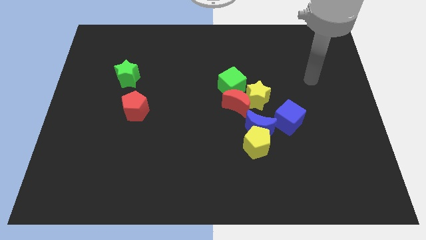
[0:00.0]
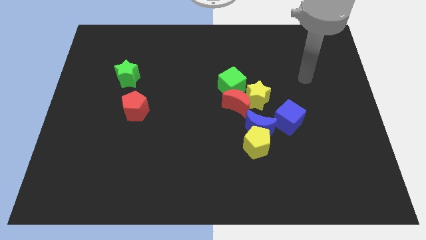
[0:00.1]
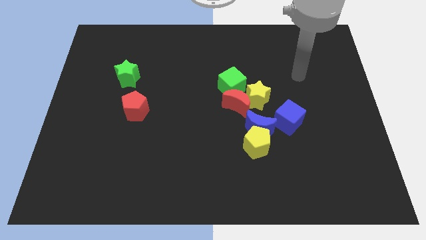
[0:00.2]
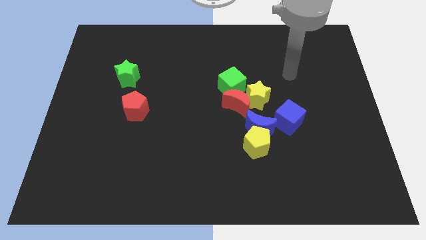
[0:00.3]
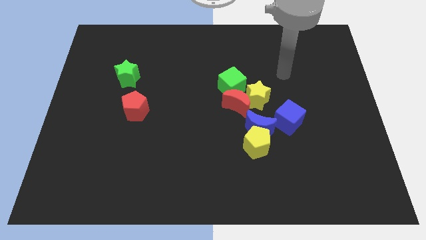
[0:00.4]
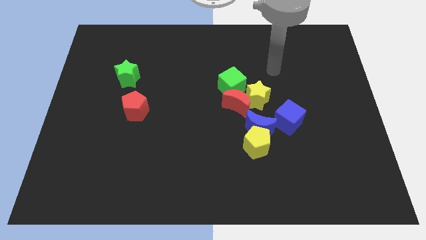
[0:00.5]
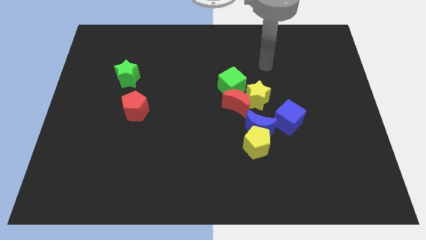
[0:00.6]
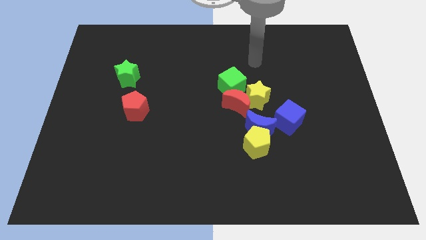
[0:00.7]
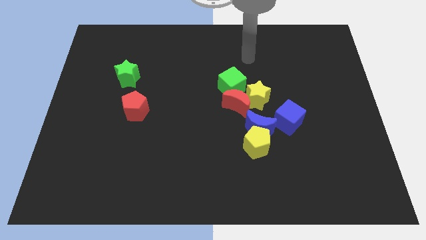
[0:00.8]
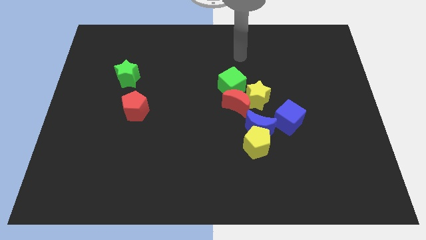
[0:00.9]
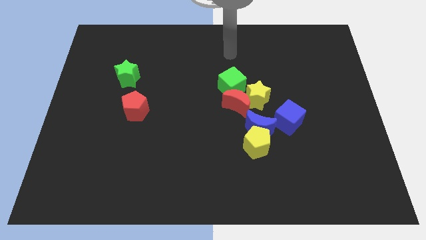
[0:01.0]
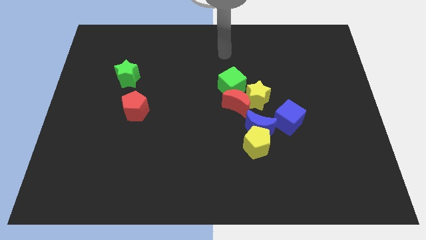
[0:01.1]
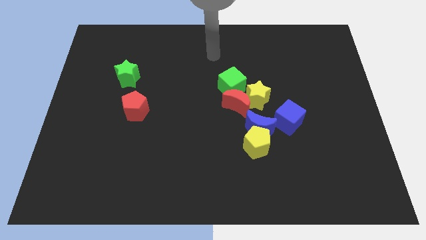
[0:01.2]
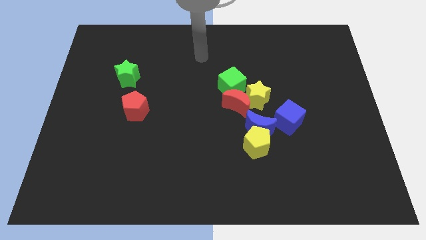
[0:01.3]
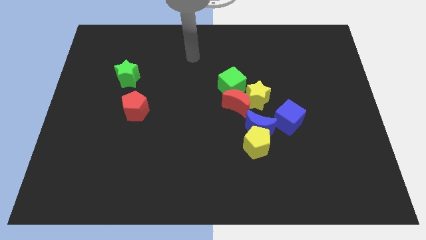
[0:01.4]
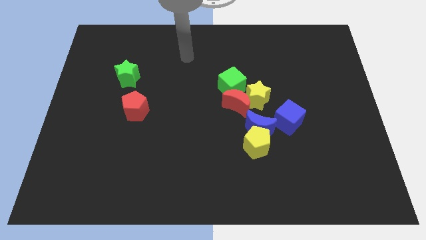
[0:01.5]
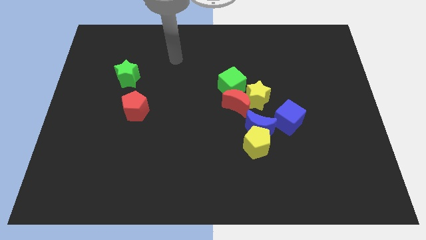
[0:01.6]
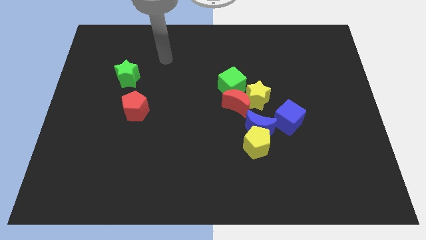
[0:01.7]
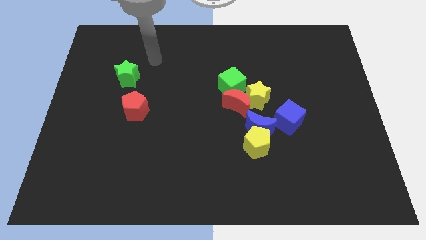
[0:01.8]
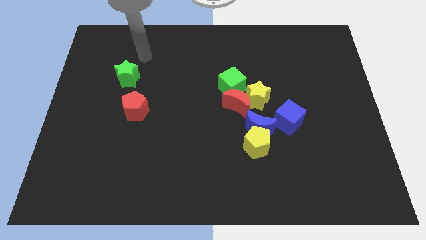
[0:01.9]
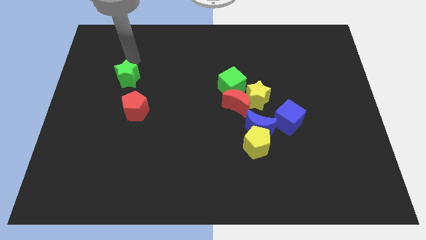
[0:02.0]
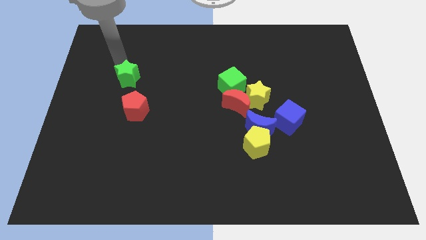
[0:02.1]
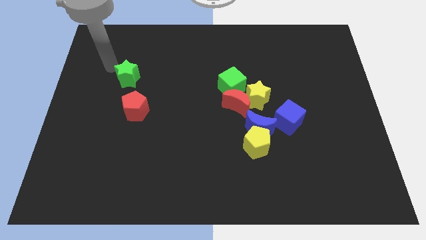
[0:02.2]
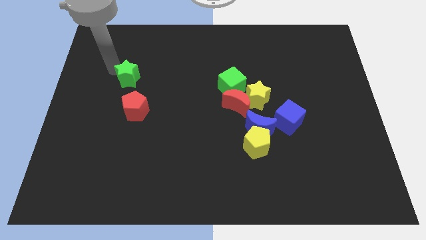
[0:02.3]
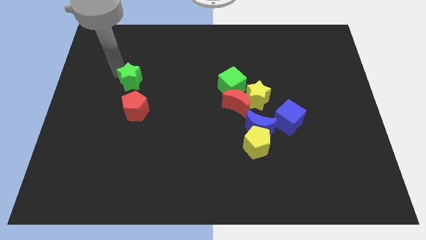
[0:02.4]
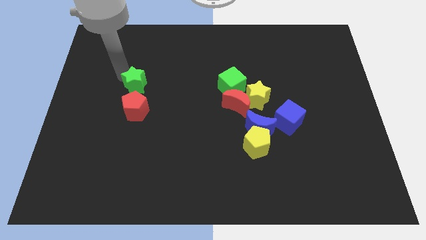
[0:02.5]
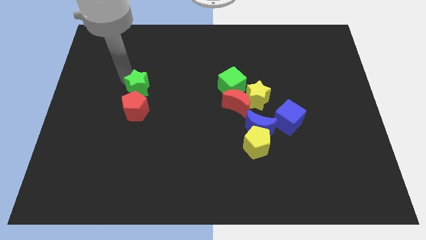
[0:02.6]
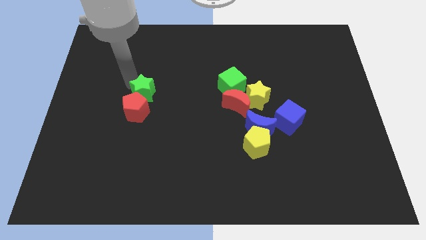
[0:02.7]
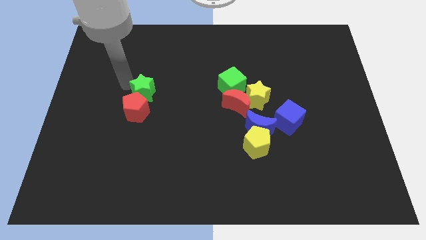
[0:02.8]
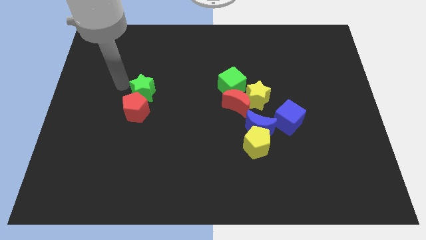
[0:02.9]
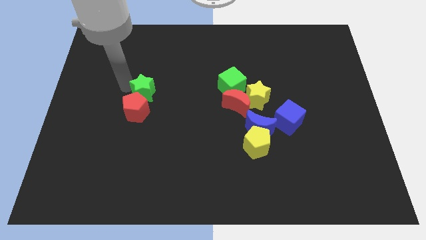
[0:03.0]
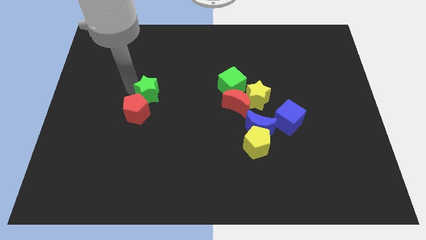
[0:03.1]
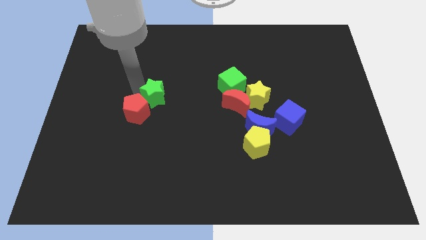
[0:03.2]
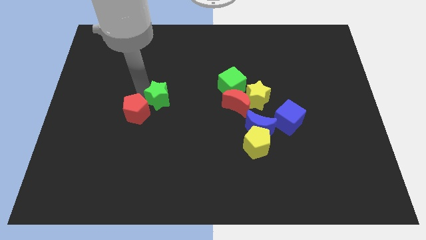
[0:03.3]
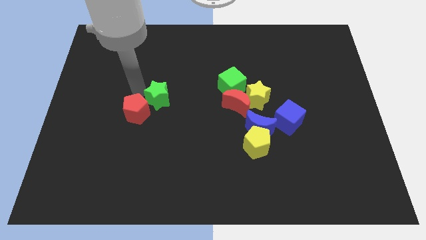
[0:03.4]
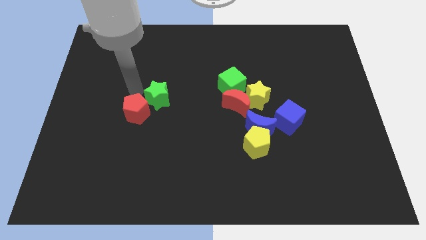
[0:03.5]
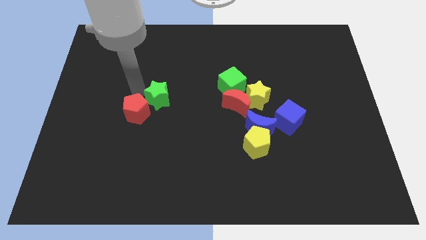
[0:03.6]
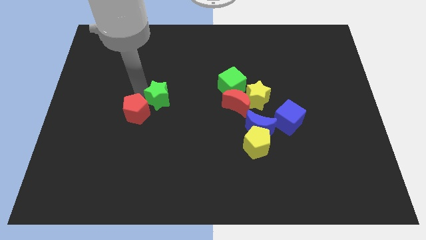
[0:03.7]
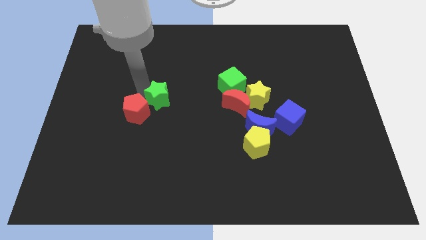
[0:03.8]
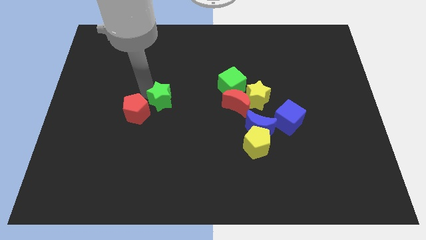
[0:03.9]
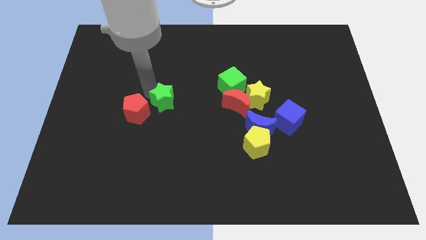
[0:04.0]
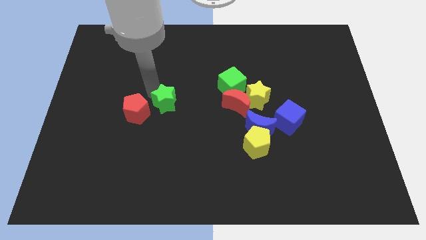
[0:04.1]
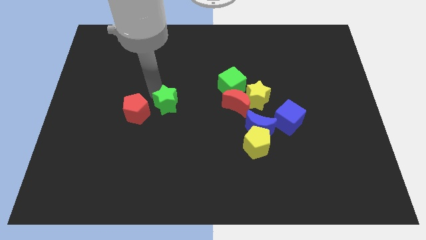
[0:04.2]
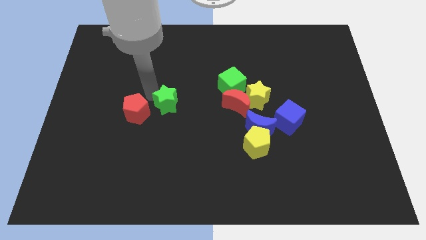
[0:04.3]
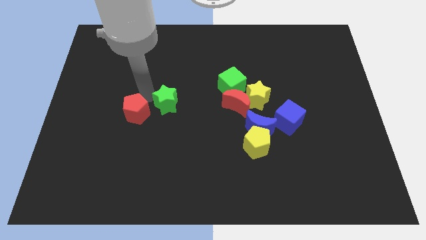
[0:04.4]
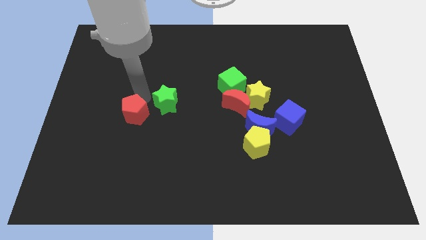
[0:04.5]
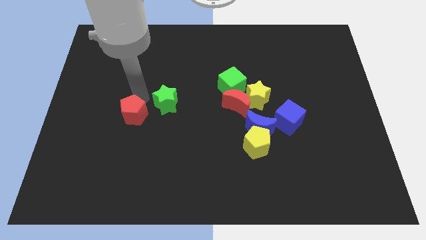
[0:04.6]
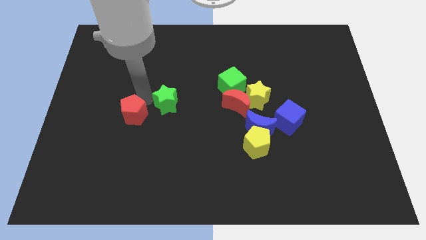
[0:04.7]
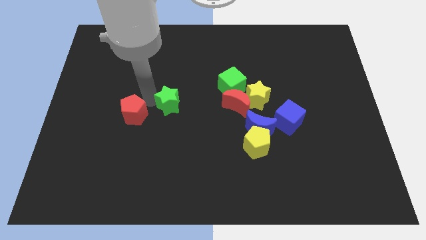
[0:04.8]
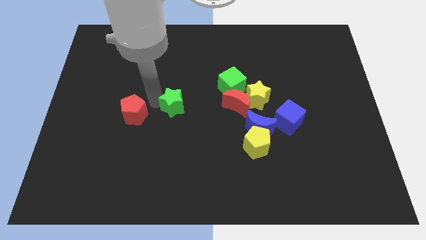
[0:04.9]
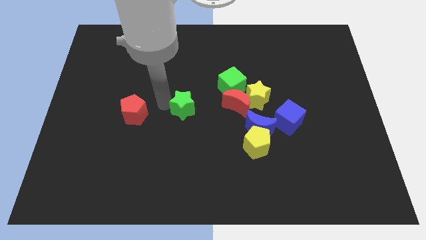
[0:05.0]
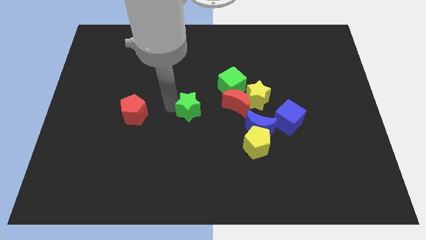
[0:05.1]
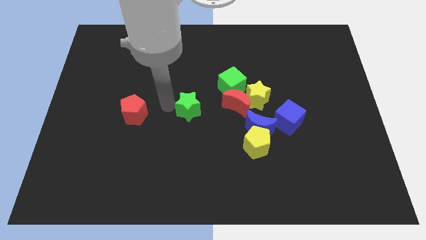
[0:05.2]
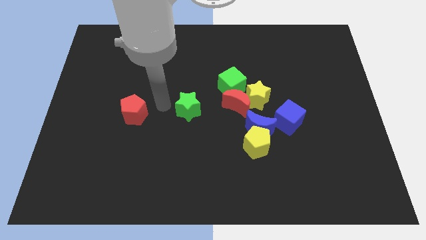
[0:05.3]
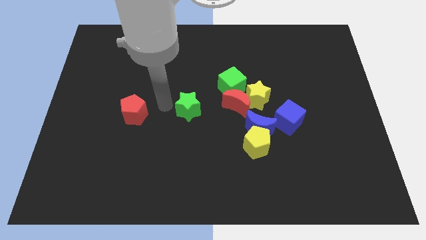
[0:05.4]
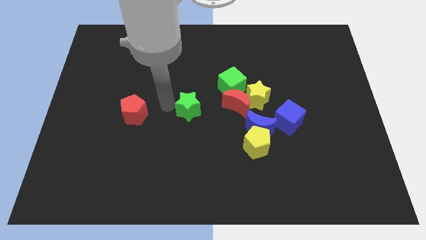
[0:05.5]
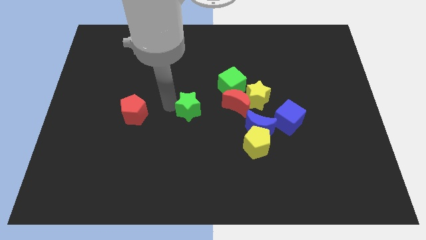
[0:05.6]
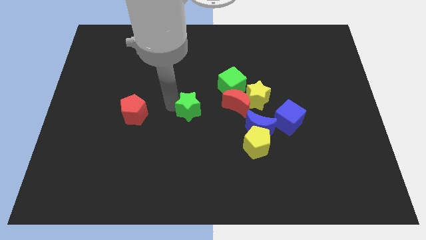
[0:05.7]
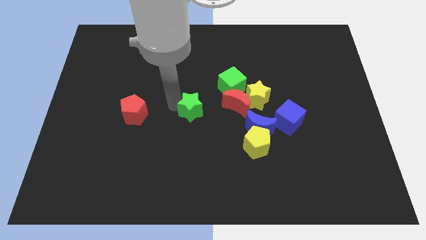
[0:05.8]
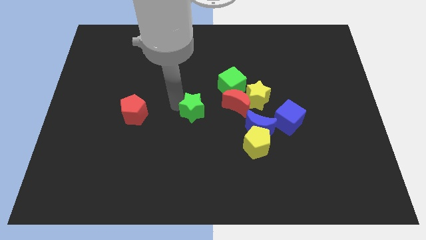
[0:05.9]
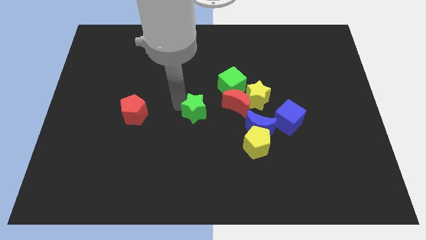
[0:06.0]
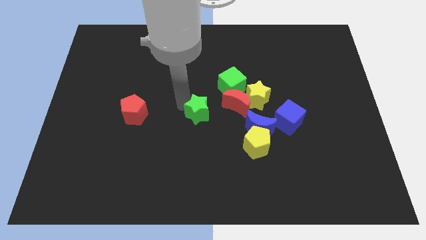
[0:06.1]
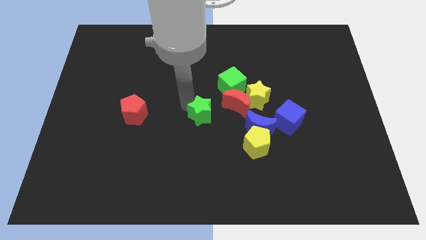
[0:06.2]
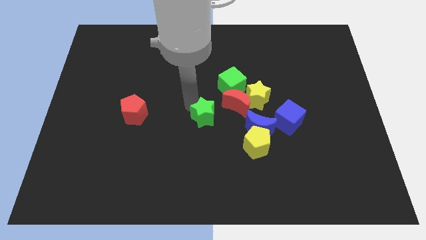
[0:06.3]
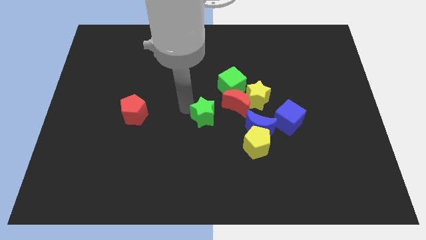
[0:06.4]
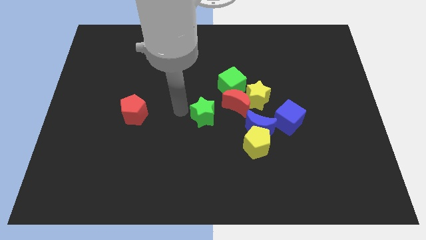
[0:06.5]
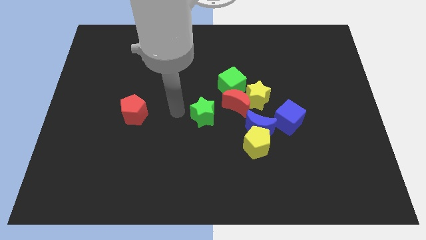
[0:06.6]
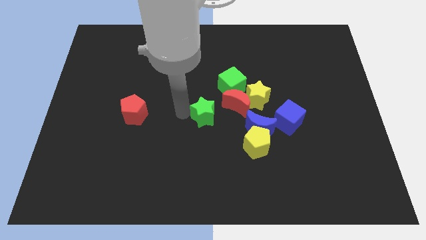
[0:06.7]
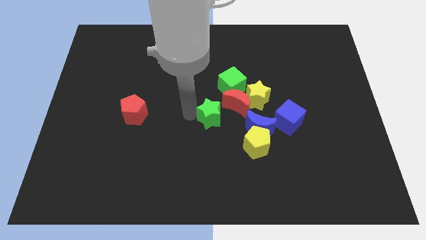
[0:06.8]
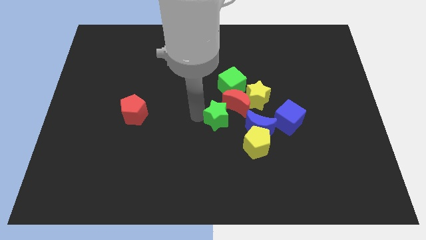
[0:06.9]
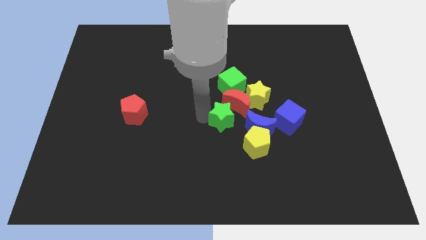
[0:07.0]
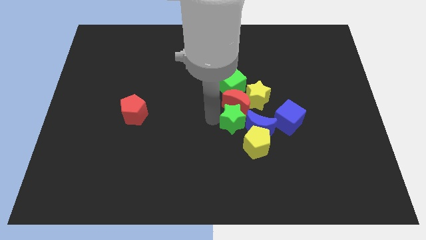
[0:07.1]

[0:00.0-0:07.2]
push the green star towards the blue moon
